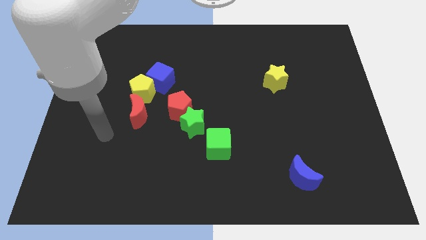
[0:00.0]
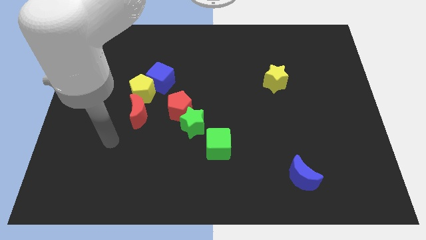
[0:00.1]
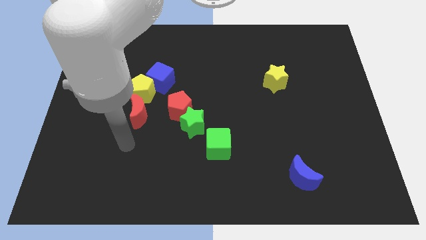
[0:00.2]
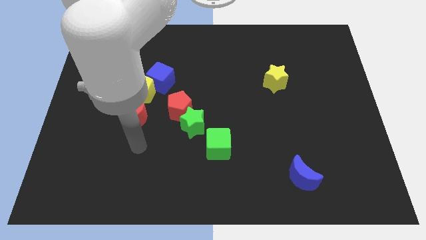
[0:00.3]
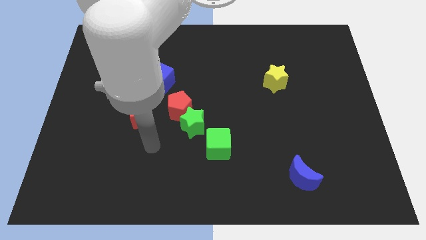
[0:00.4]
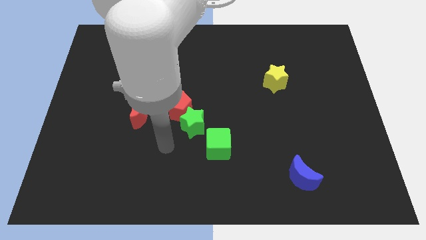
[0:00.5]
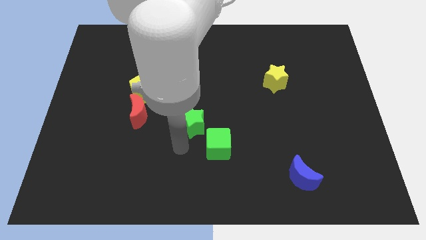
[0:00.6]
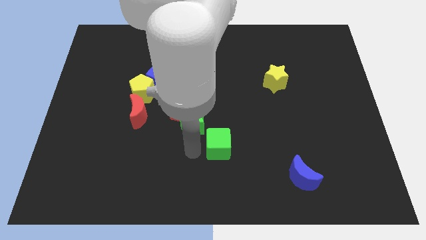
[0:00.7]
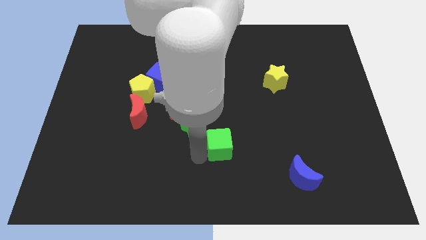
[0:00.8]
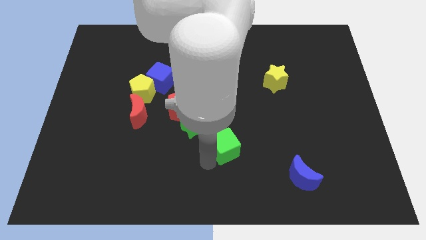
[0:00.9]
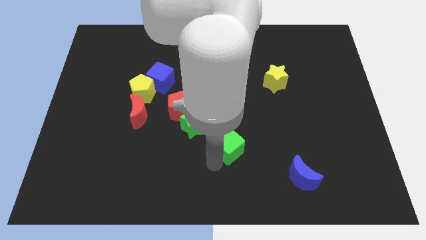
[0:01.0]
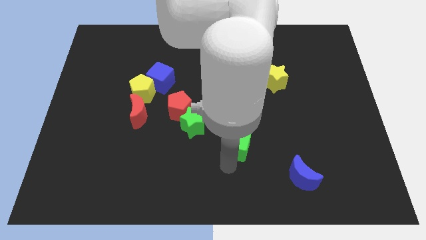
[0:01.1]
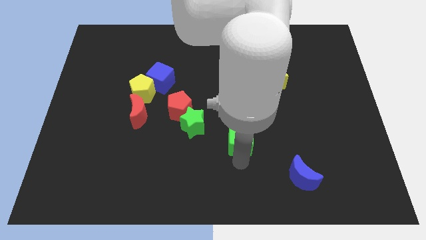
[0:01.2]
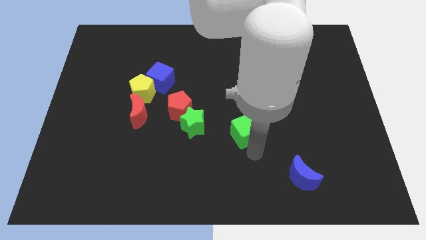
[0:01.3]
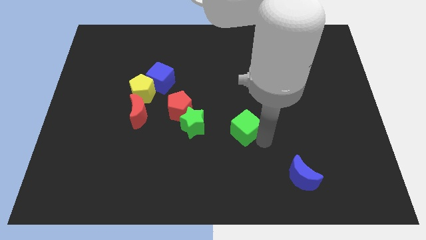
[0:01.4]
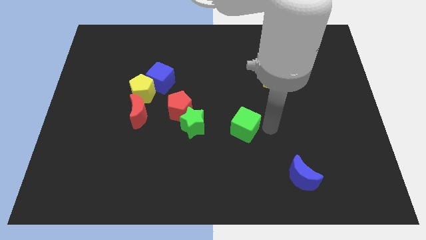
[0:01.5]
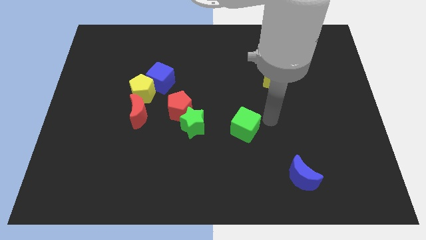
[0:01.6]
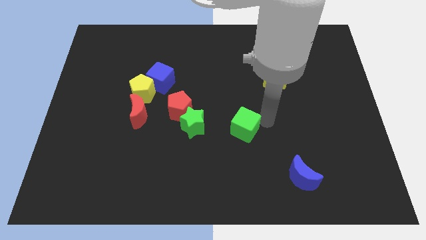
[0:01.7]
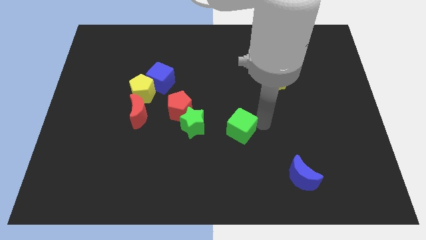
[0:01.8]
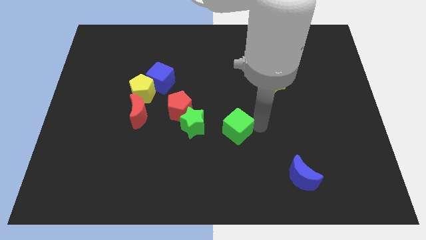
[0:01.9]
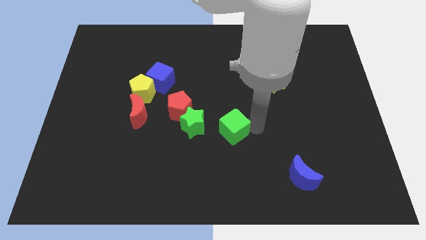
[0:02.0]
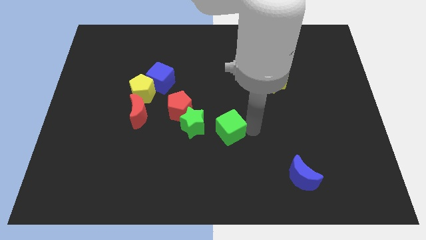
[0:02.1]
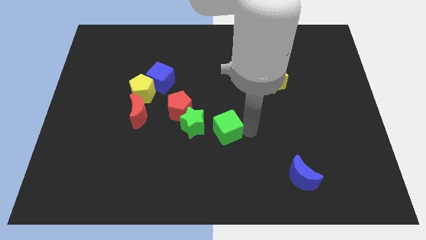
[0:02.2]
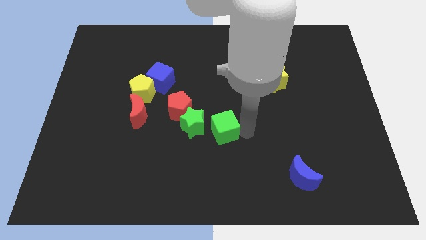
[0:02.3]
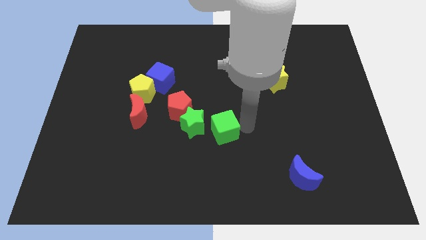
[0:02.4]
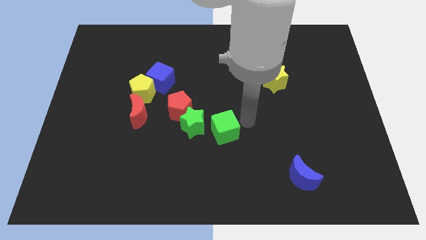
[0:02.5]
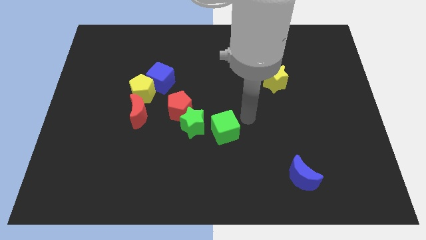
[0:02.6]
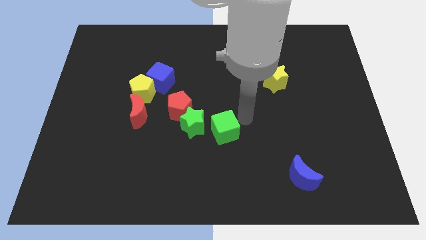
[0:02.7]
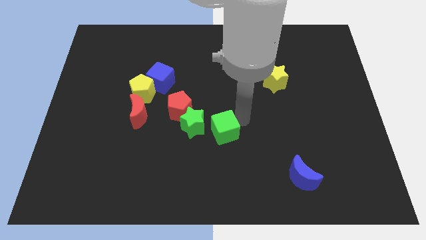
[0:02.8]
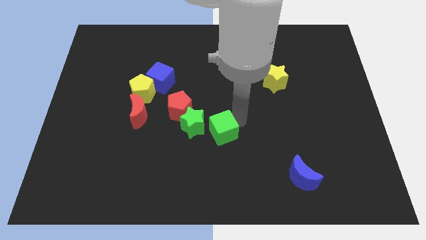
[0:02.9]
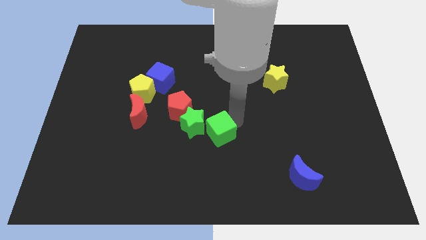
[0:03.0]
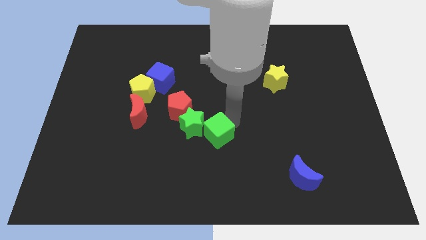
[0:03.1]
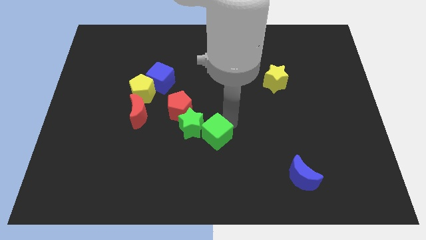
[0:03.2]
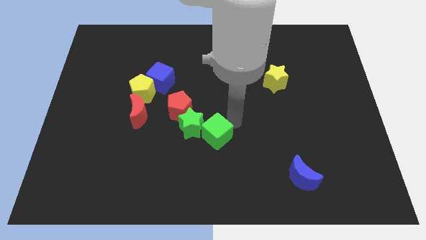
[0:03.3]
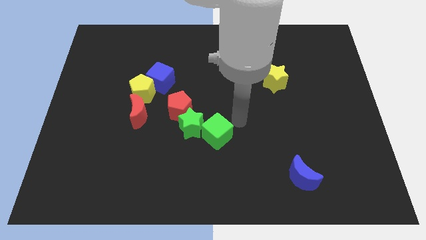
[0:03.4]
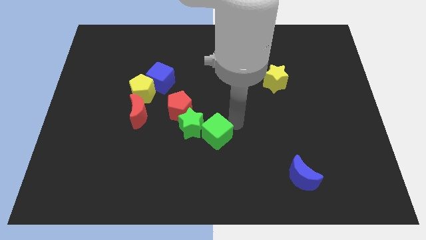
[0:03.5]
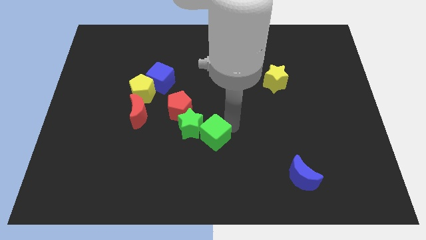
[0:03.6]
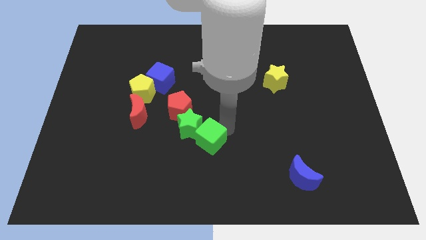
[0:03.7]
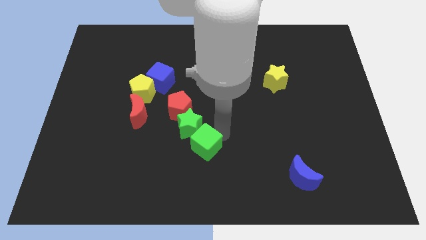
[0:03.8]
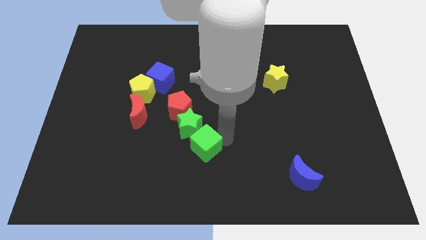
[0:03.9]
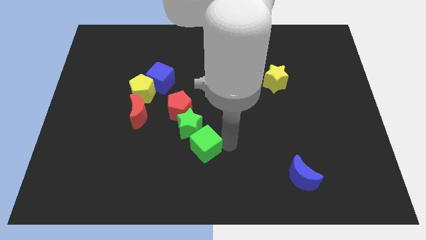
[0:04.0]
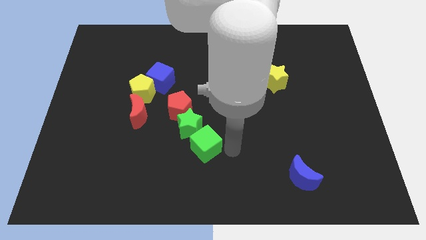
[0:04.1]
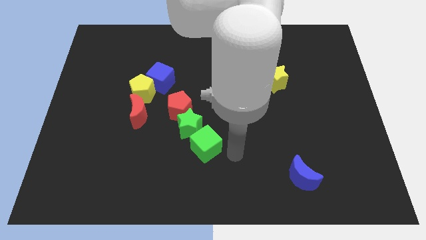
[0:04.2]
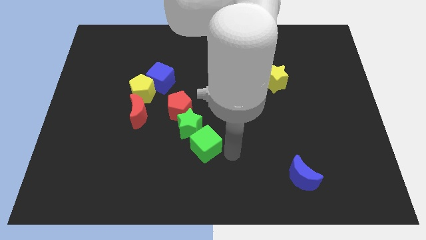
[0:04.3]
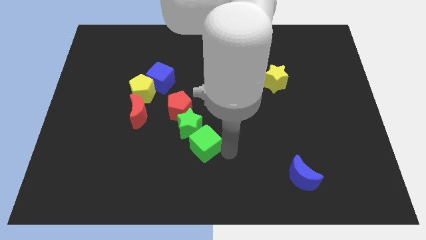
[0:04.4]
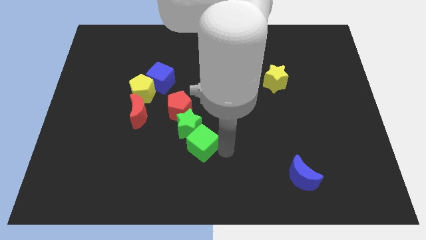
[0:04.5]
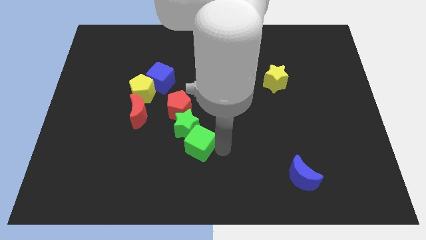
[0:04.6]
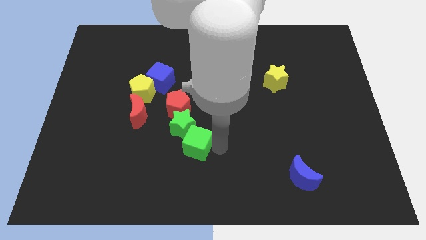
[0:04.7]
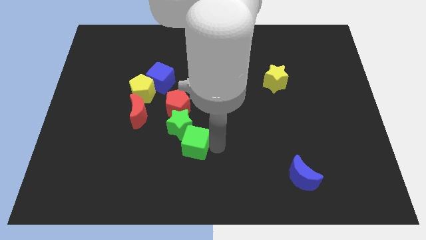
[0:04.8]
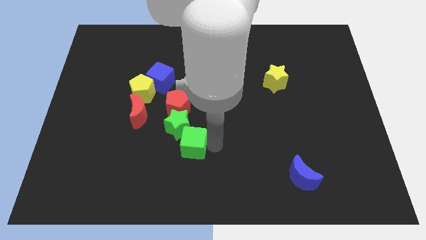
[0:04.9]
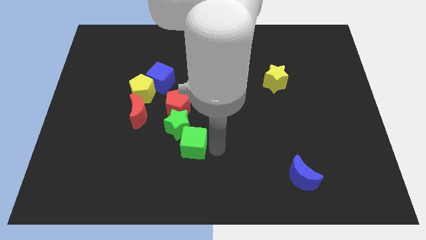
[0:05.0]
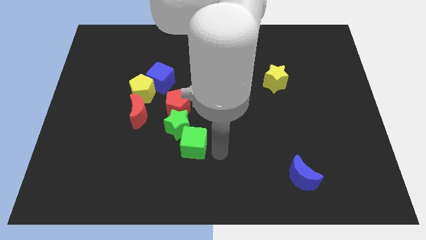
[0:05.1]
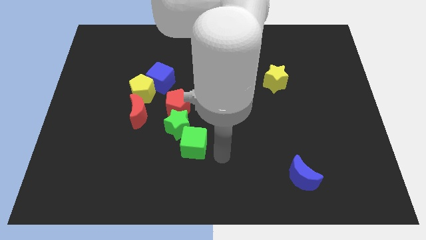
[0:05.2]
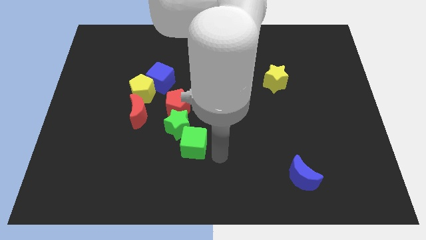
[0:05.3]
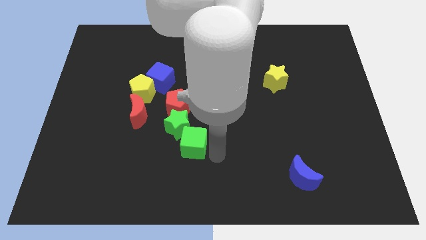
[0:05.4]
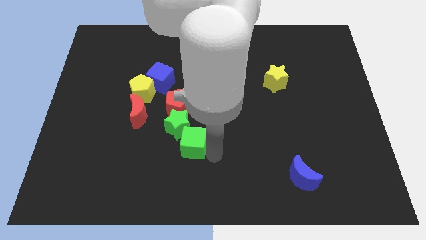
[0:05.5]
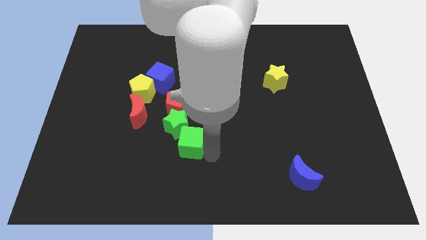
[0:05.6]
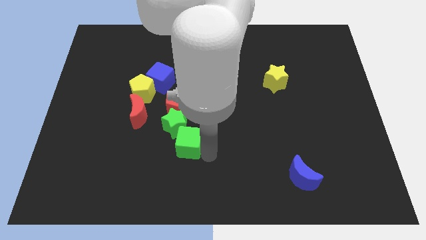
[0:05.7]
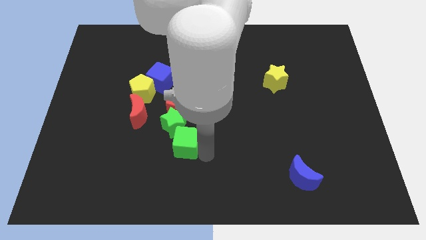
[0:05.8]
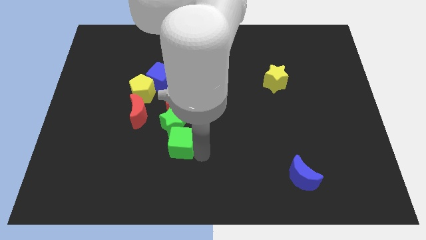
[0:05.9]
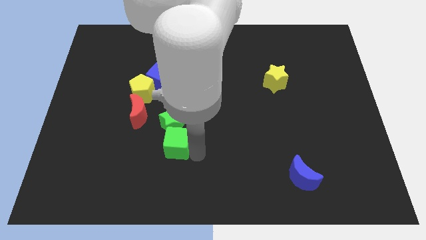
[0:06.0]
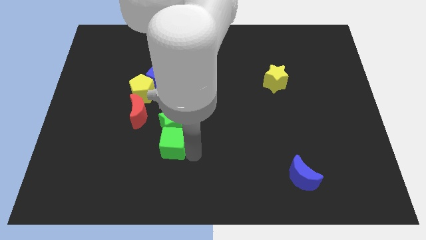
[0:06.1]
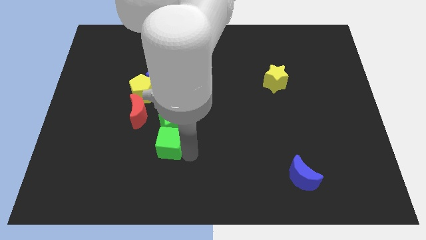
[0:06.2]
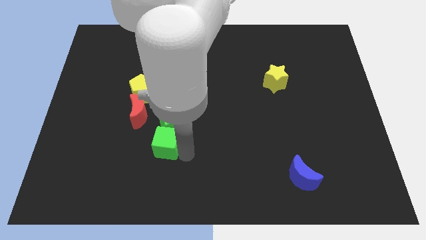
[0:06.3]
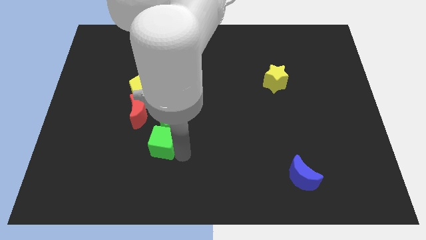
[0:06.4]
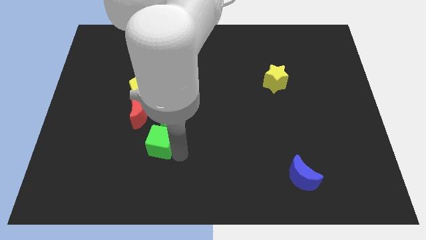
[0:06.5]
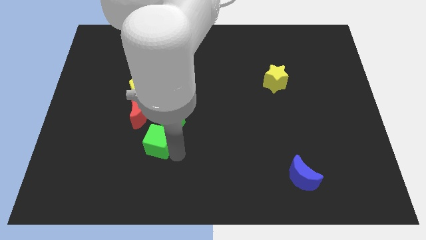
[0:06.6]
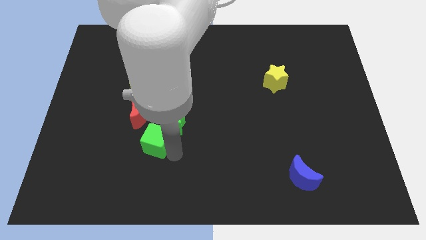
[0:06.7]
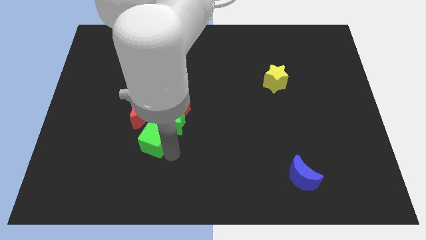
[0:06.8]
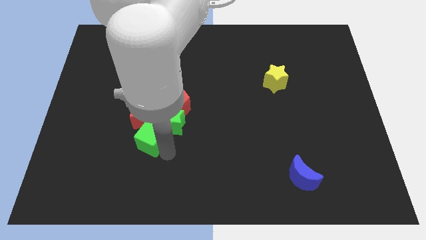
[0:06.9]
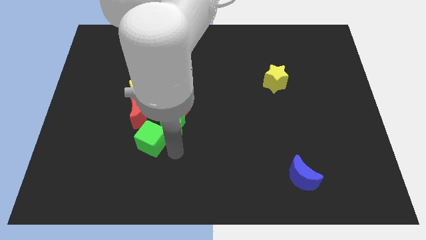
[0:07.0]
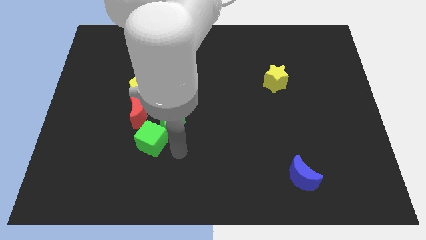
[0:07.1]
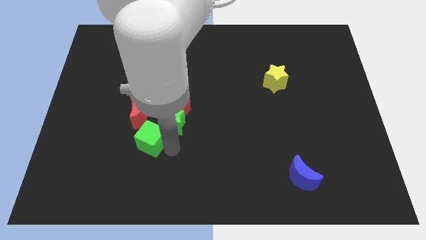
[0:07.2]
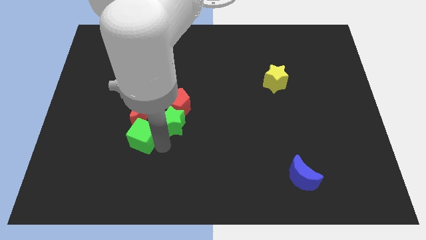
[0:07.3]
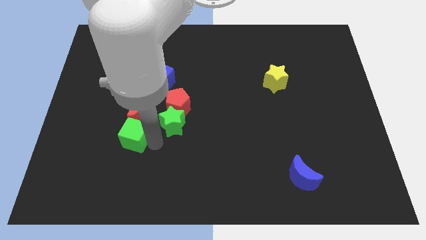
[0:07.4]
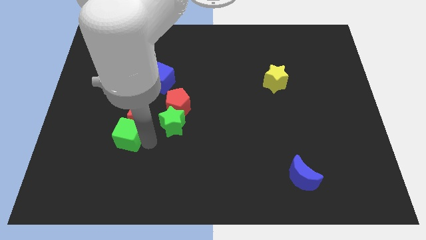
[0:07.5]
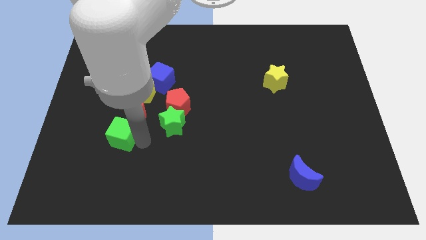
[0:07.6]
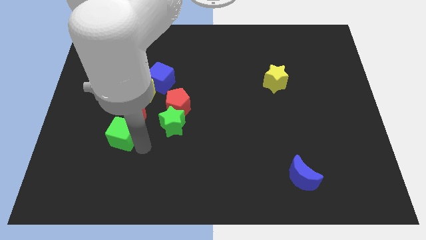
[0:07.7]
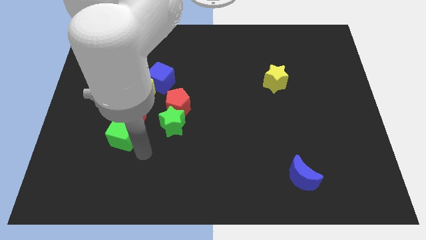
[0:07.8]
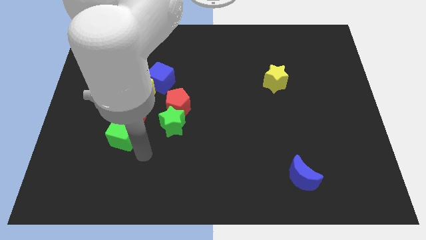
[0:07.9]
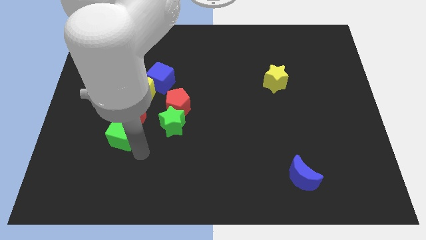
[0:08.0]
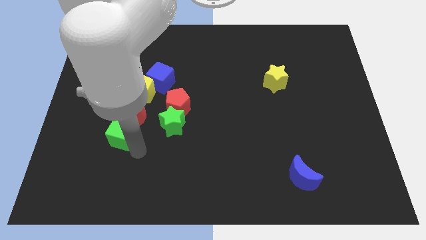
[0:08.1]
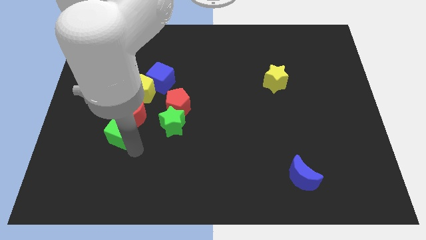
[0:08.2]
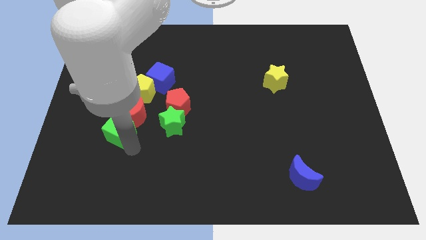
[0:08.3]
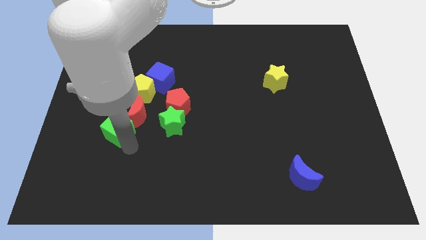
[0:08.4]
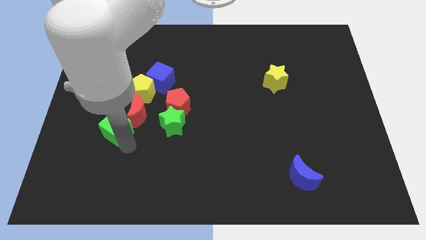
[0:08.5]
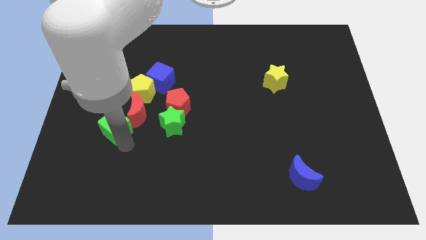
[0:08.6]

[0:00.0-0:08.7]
slide the green cube to the left side of the red moon
